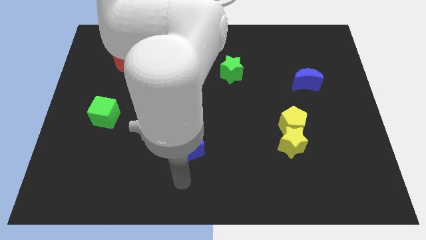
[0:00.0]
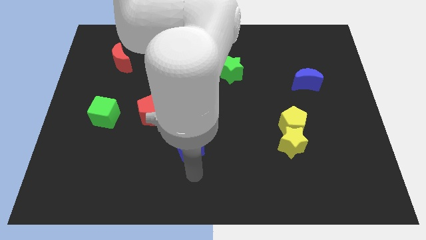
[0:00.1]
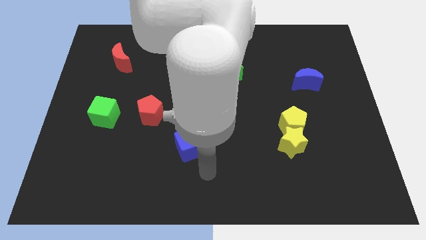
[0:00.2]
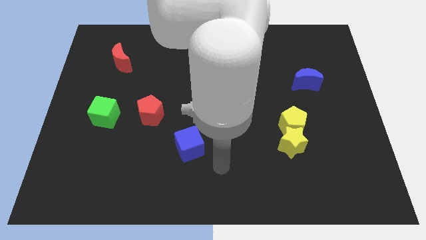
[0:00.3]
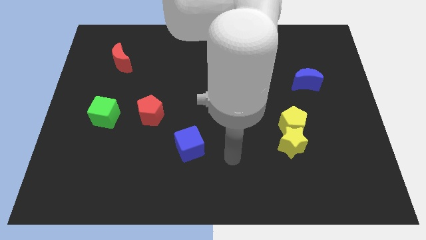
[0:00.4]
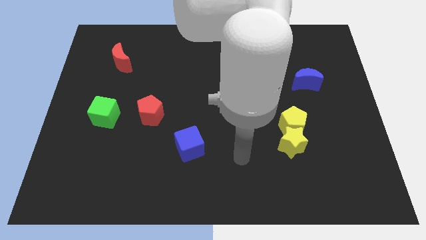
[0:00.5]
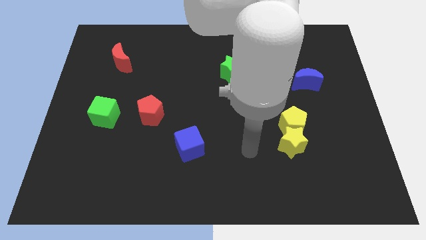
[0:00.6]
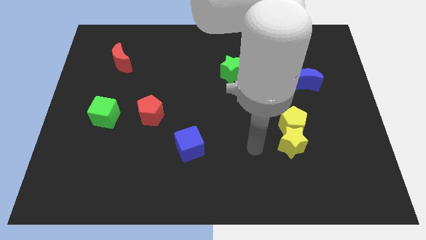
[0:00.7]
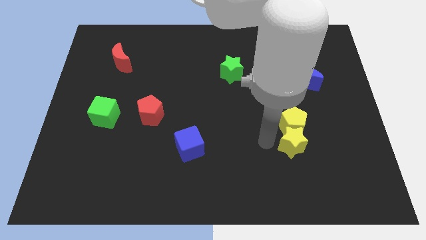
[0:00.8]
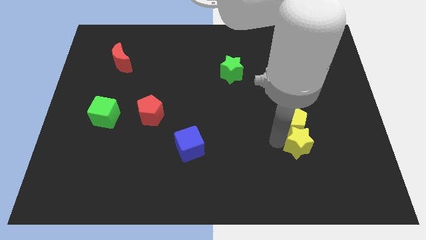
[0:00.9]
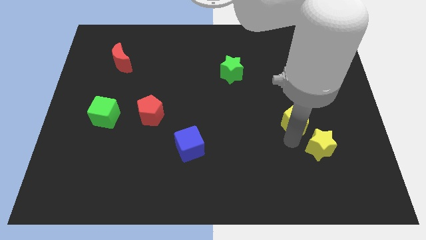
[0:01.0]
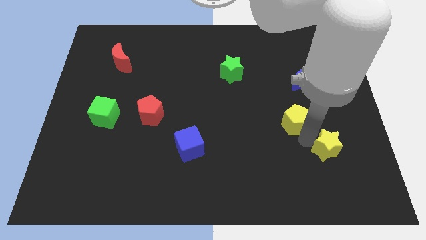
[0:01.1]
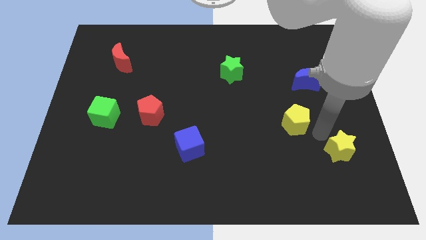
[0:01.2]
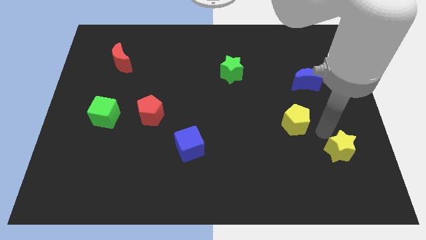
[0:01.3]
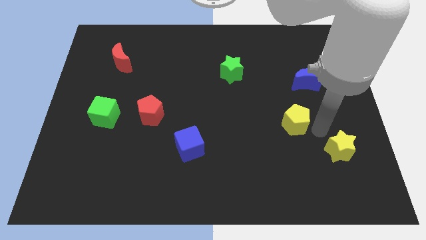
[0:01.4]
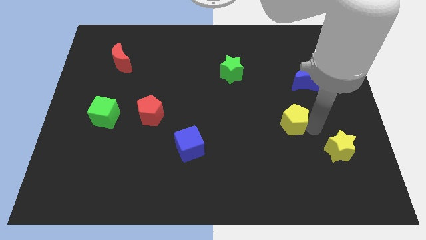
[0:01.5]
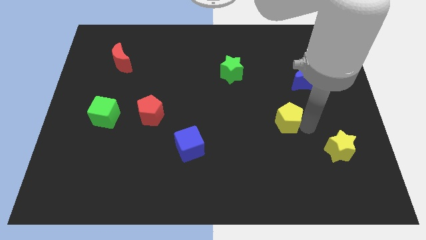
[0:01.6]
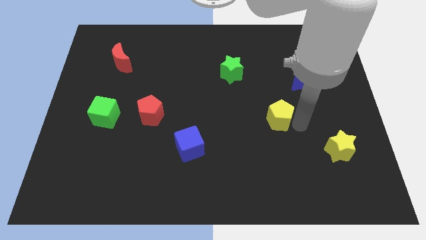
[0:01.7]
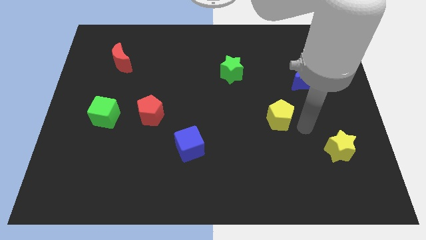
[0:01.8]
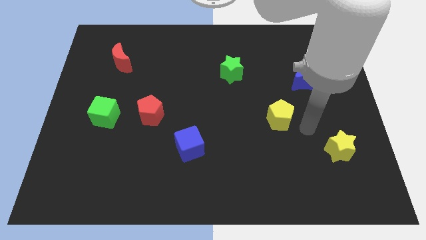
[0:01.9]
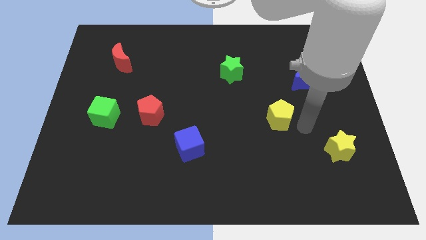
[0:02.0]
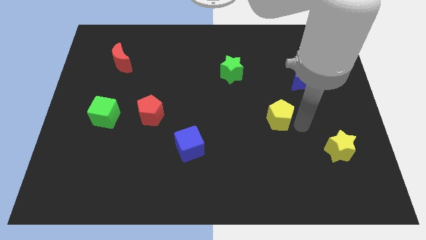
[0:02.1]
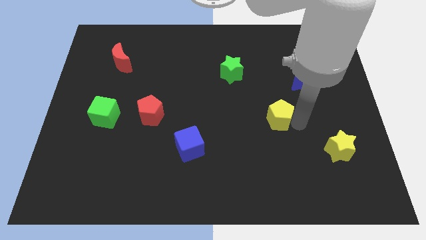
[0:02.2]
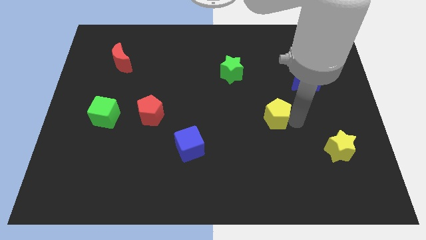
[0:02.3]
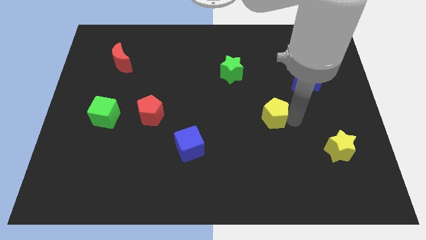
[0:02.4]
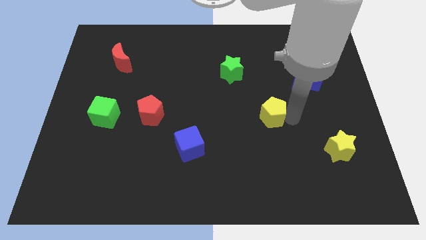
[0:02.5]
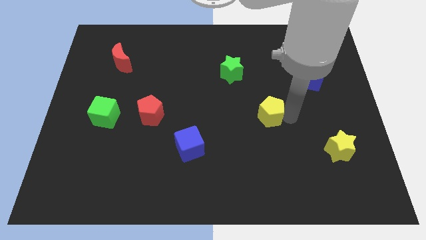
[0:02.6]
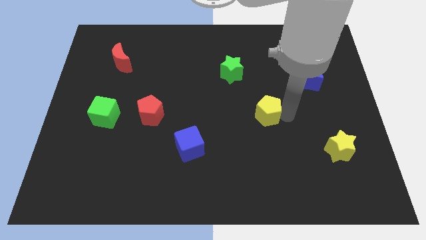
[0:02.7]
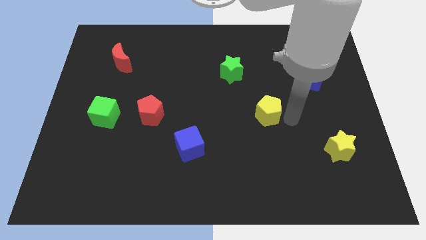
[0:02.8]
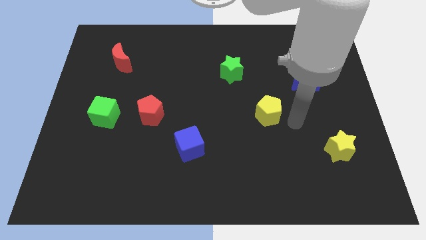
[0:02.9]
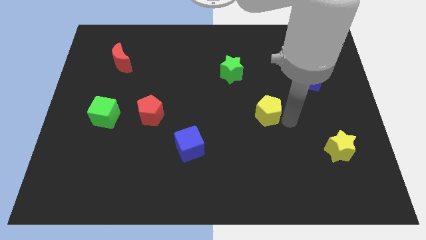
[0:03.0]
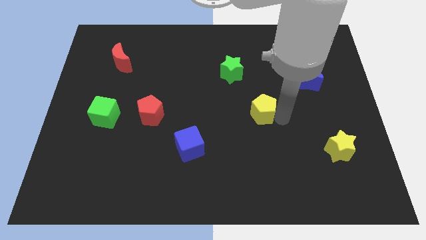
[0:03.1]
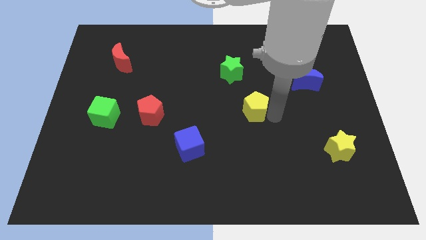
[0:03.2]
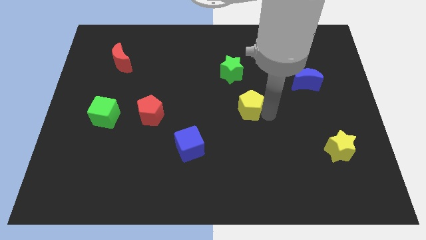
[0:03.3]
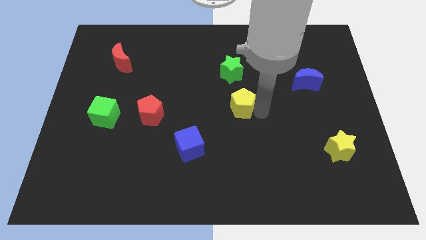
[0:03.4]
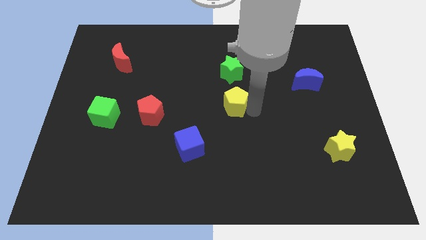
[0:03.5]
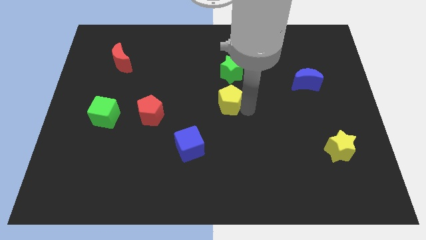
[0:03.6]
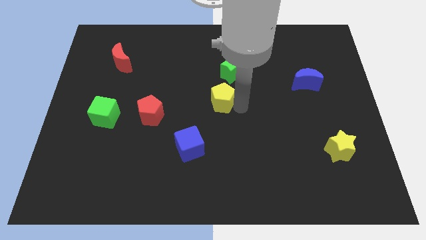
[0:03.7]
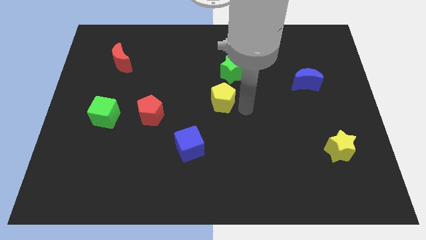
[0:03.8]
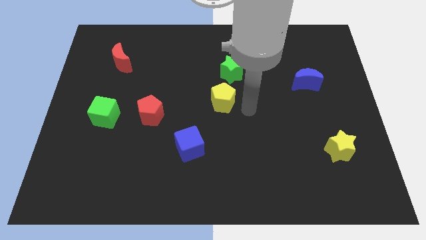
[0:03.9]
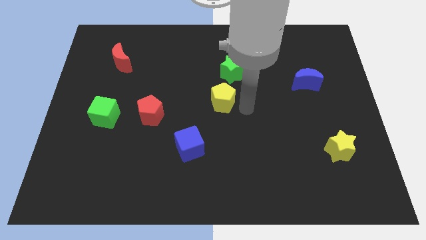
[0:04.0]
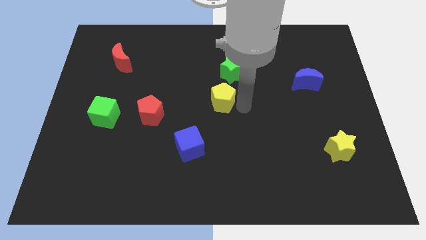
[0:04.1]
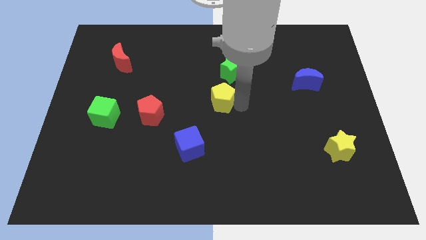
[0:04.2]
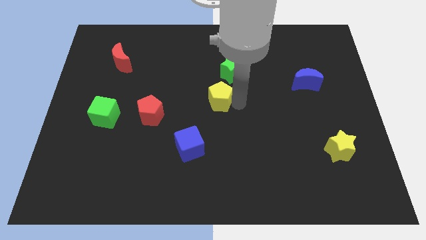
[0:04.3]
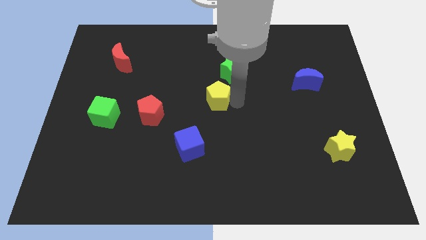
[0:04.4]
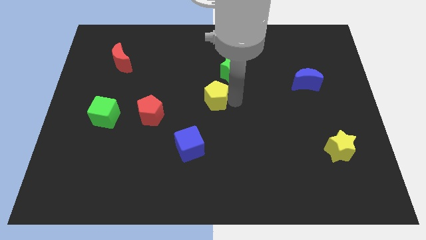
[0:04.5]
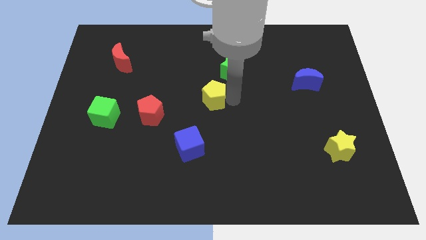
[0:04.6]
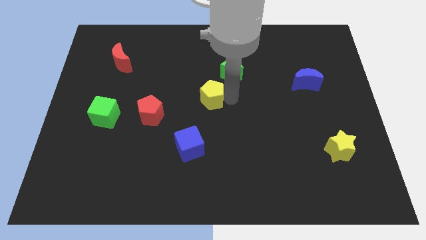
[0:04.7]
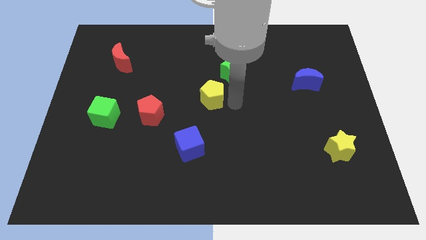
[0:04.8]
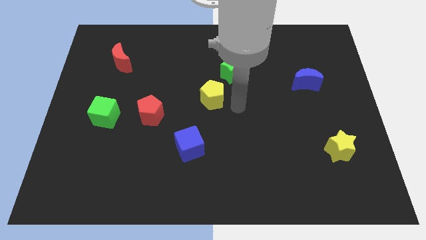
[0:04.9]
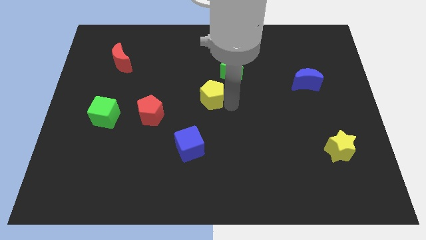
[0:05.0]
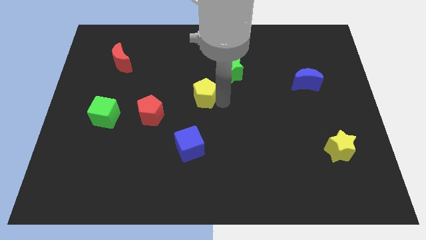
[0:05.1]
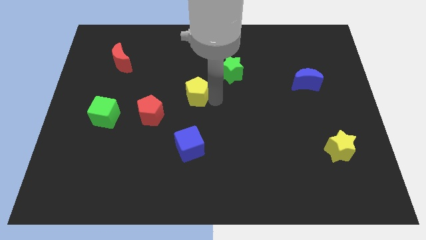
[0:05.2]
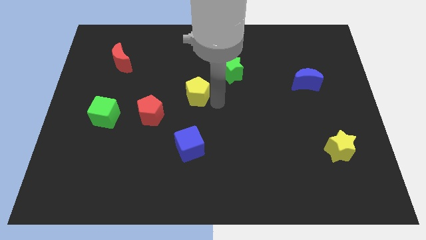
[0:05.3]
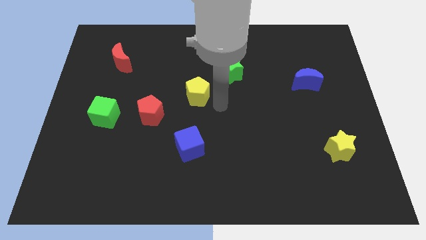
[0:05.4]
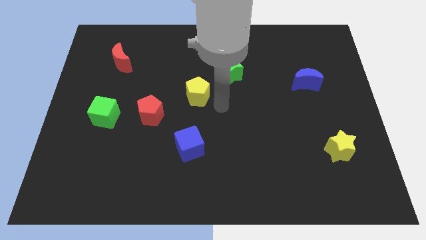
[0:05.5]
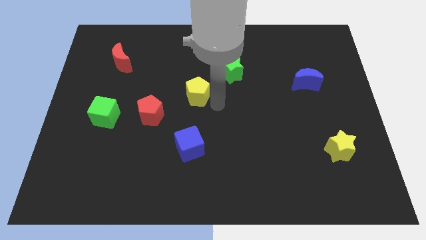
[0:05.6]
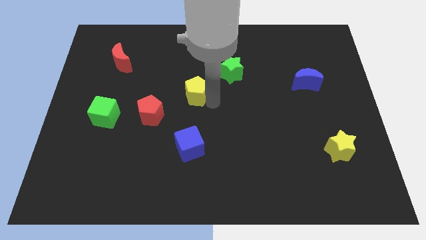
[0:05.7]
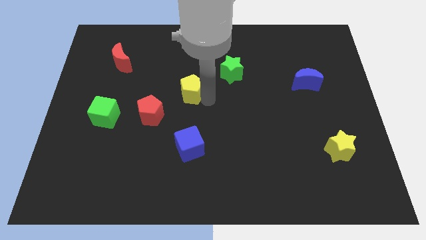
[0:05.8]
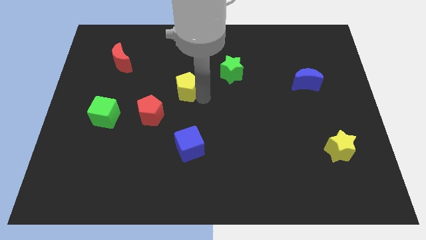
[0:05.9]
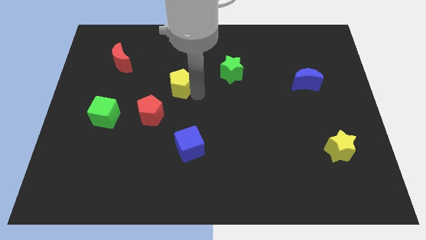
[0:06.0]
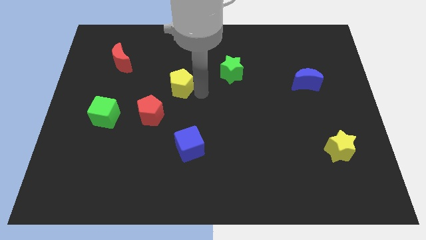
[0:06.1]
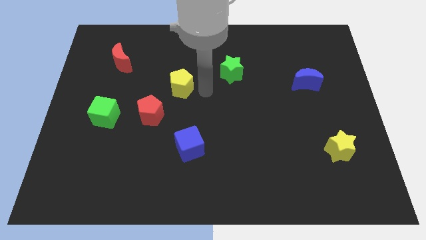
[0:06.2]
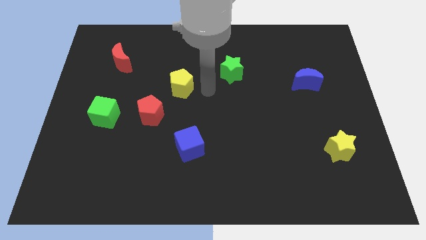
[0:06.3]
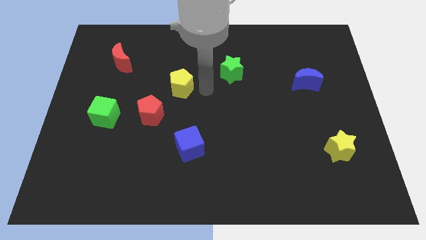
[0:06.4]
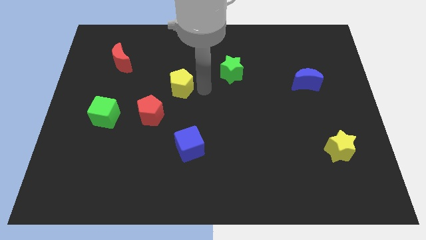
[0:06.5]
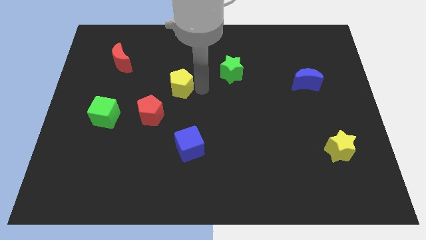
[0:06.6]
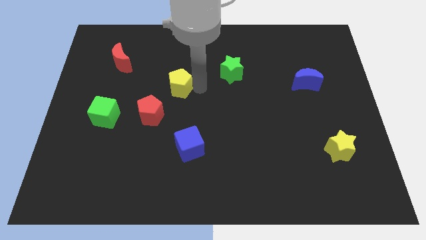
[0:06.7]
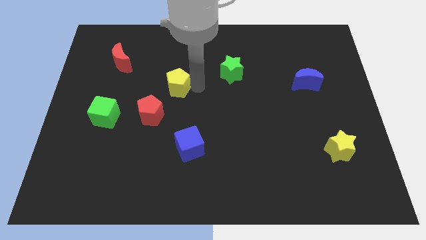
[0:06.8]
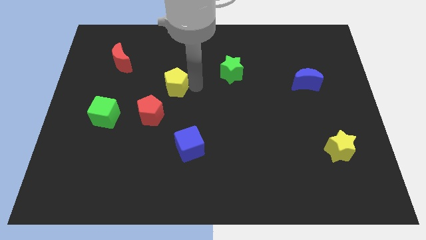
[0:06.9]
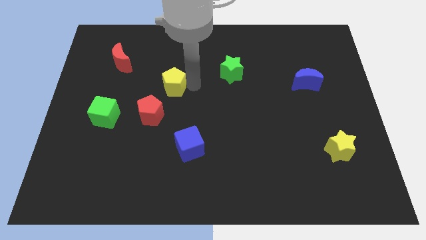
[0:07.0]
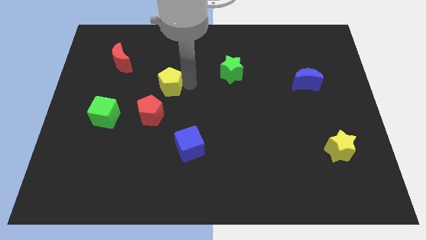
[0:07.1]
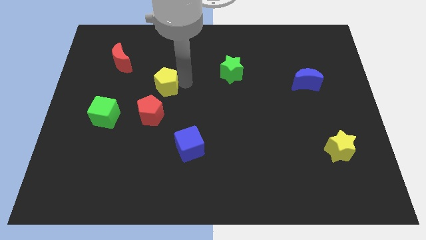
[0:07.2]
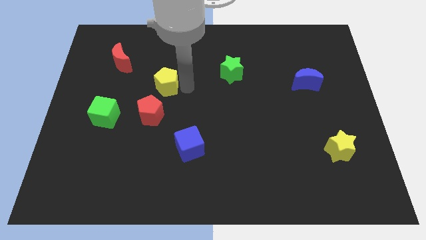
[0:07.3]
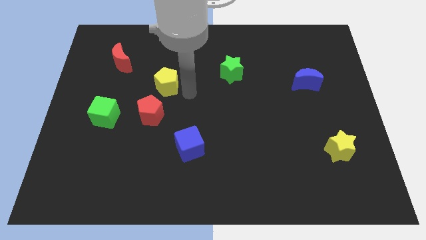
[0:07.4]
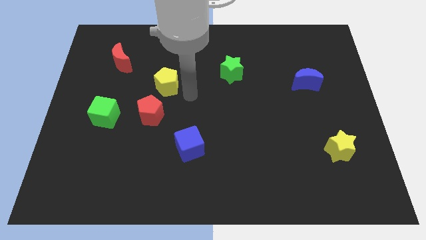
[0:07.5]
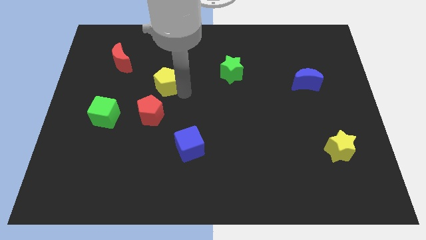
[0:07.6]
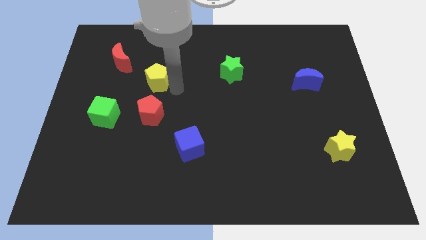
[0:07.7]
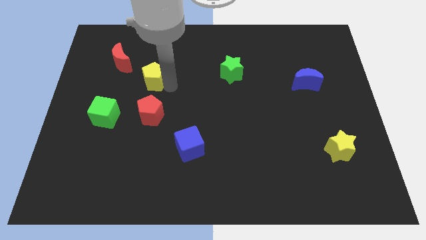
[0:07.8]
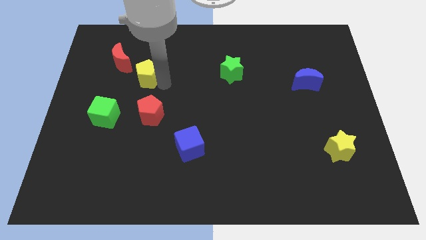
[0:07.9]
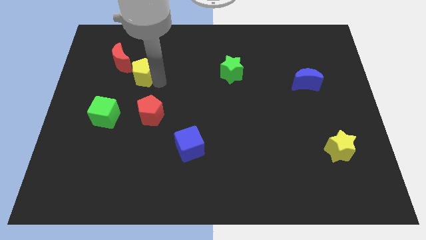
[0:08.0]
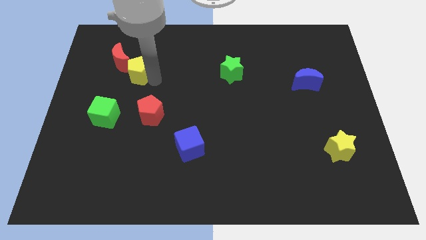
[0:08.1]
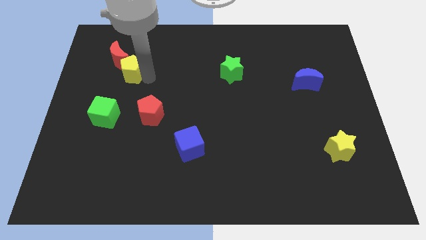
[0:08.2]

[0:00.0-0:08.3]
move the yellow pentagon close to the red moon
